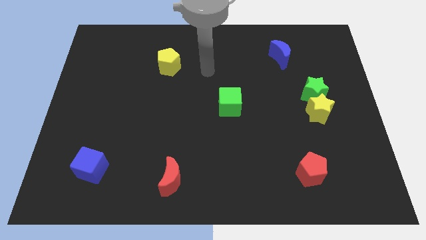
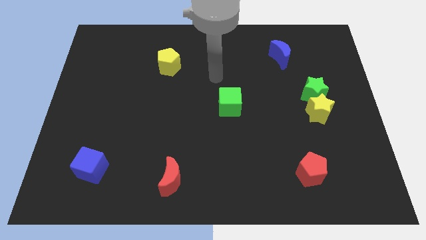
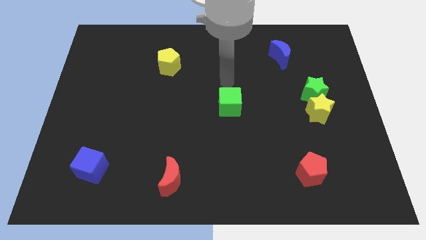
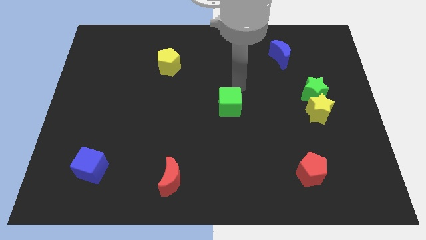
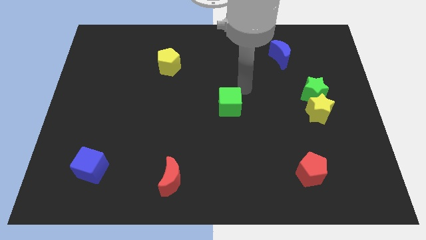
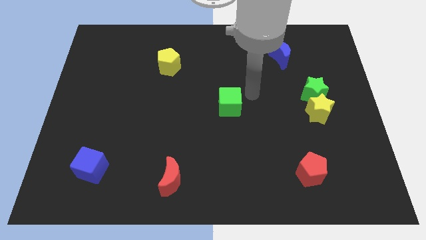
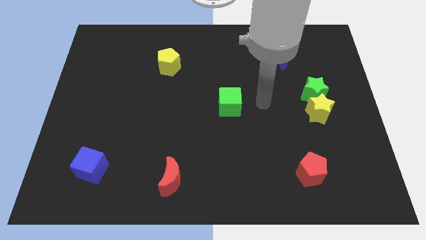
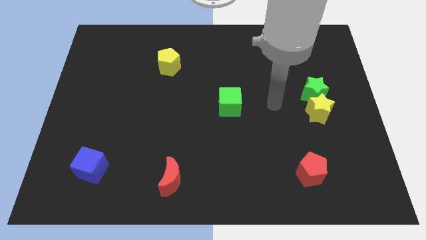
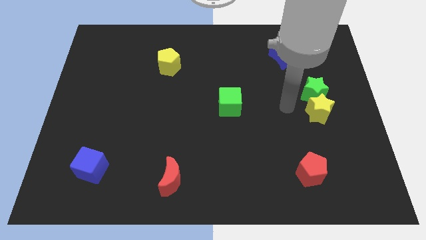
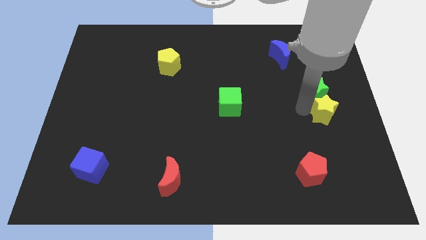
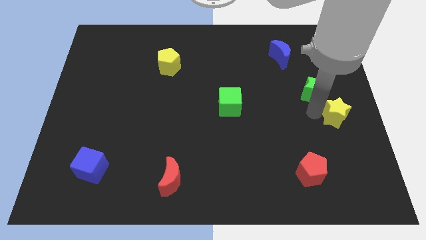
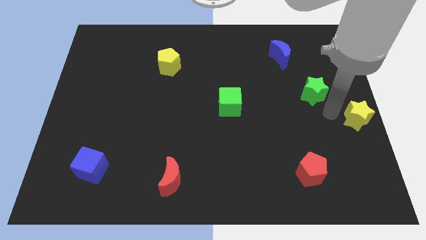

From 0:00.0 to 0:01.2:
move the green star away from the yellow star

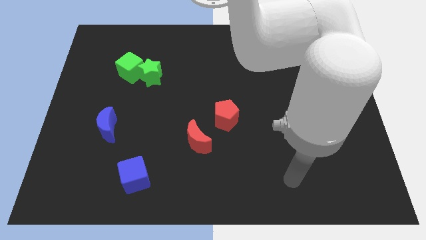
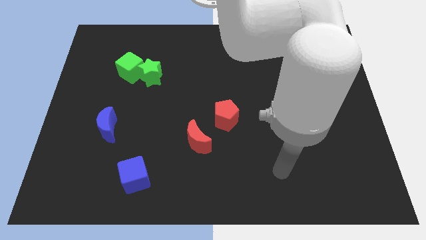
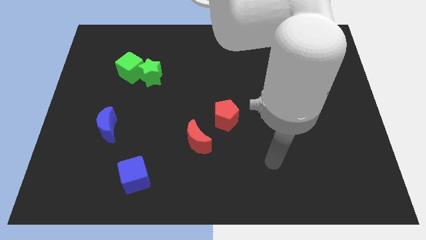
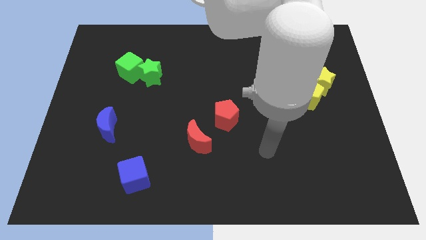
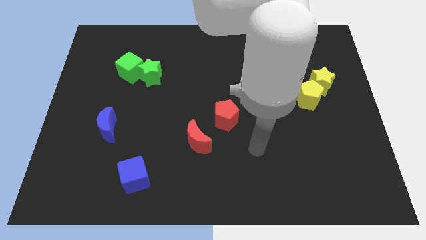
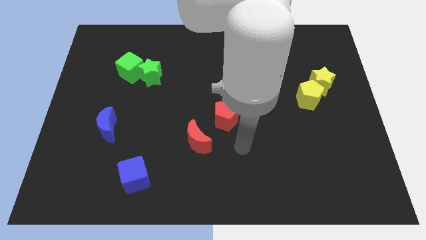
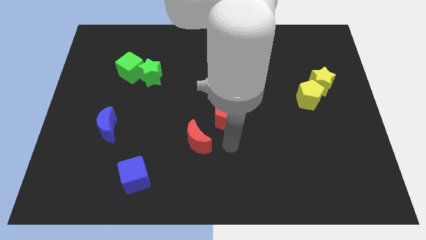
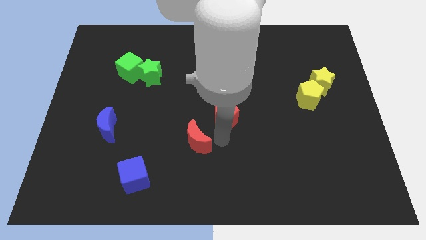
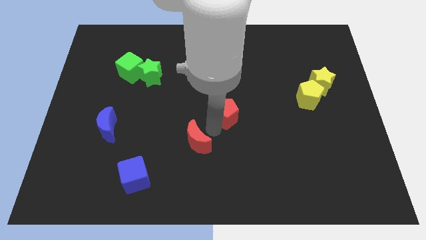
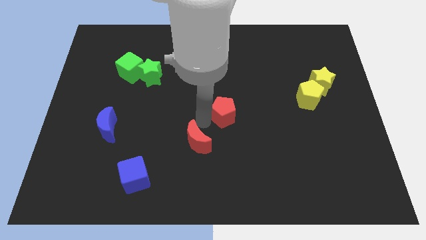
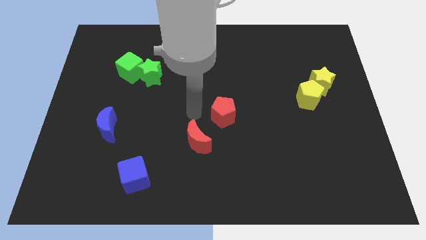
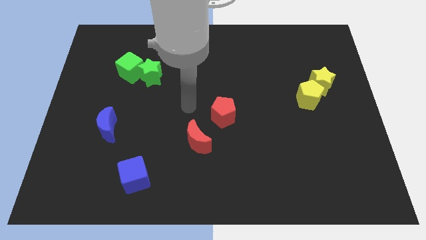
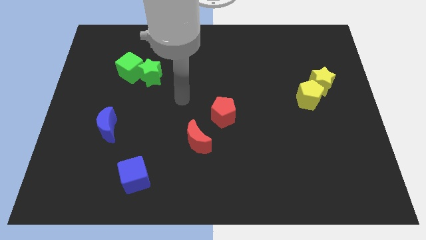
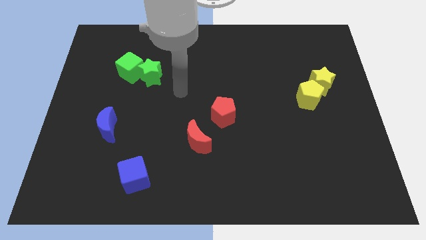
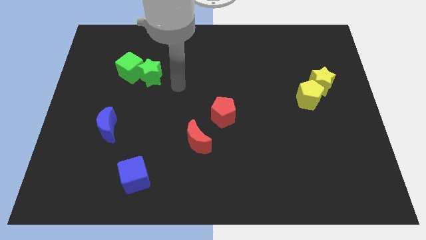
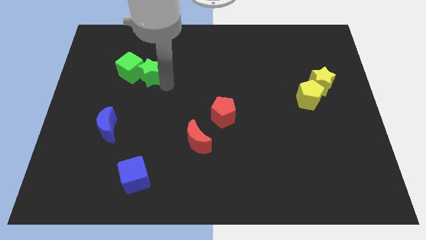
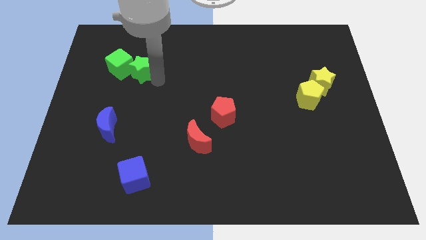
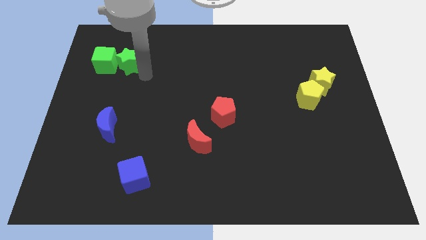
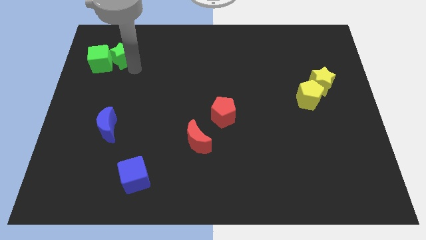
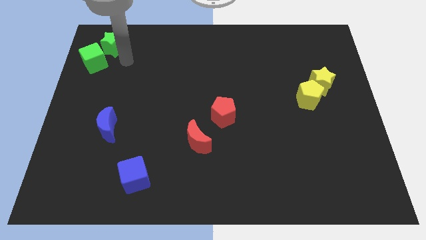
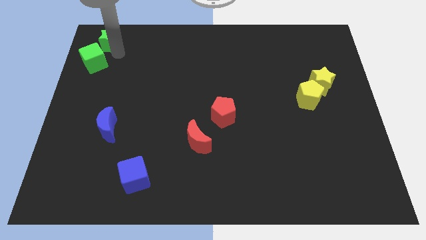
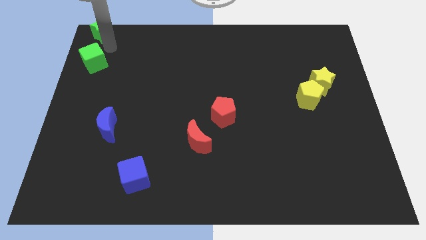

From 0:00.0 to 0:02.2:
move the green cube away from the green star

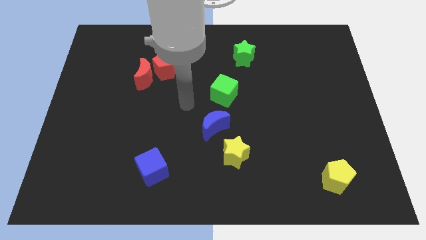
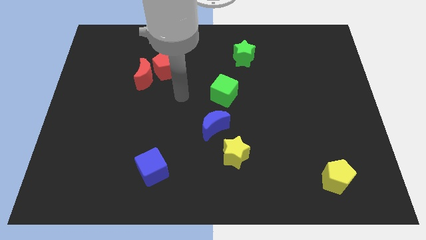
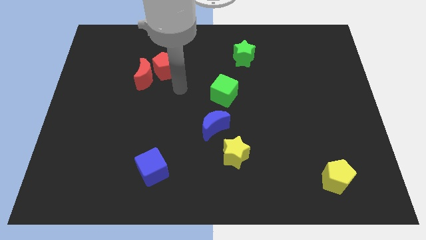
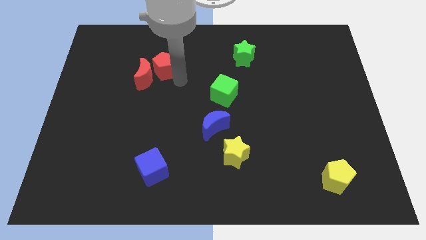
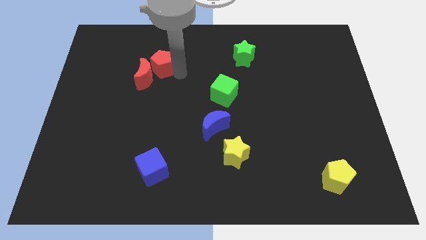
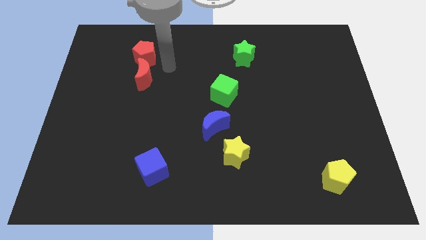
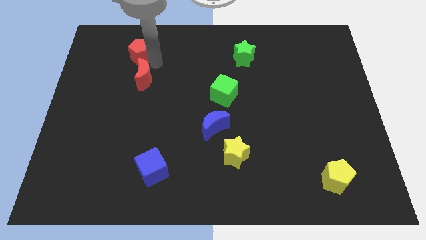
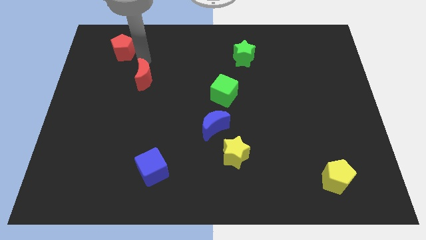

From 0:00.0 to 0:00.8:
separate the red moon from the red pentagon

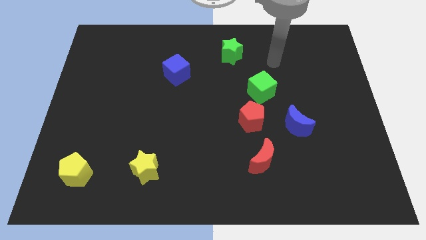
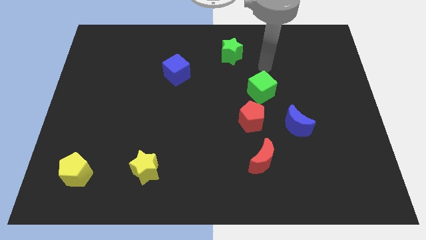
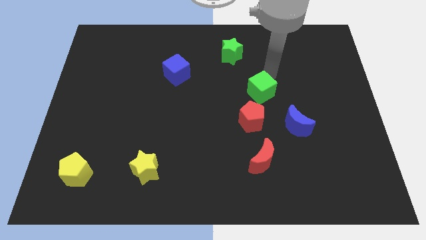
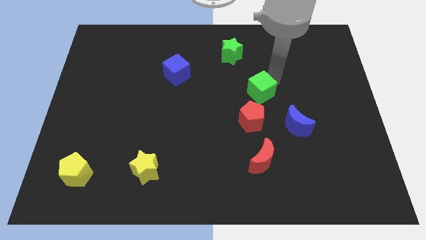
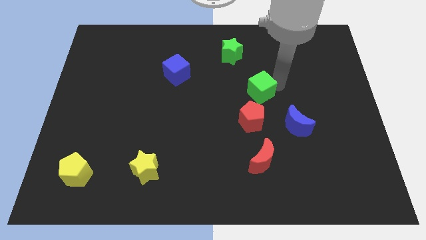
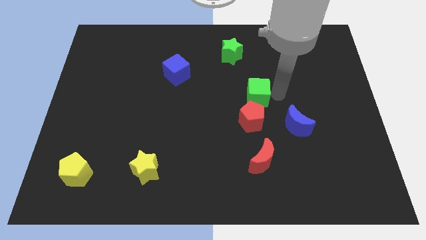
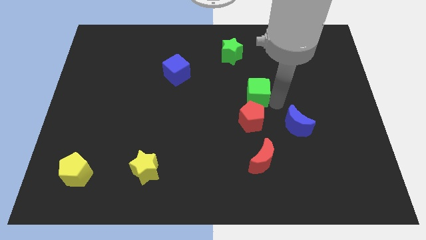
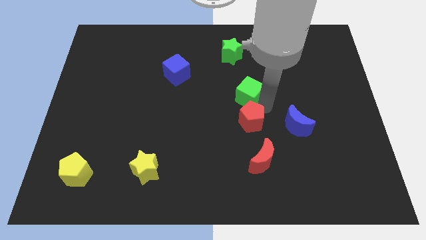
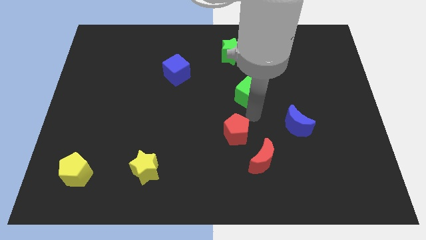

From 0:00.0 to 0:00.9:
pull the green cube apart from the red pentagon

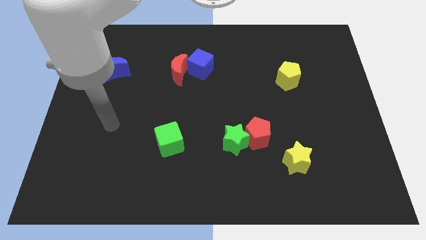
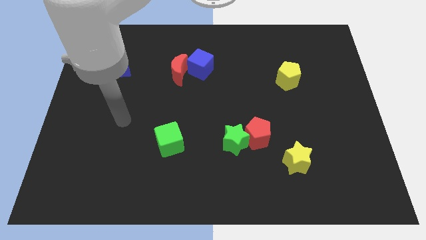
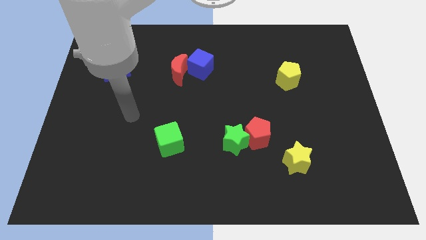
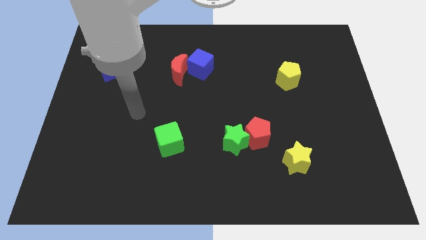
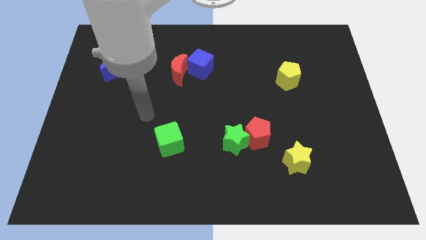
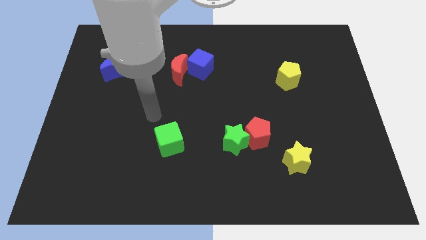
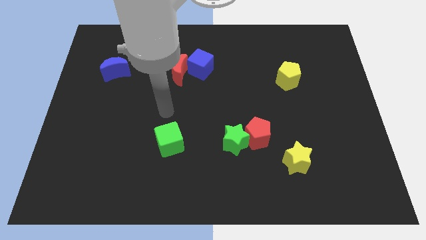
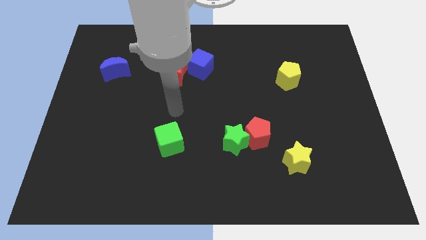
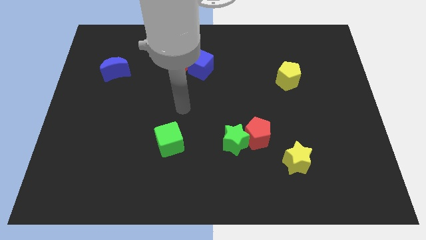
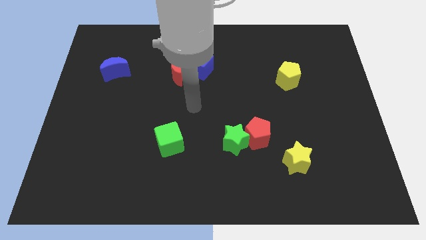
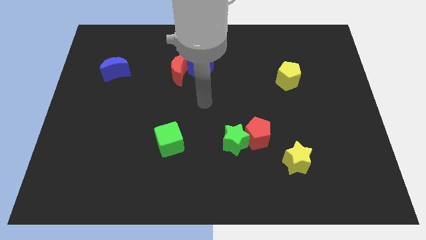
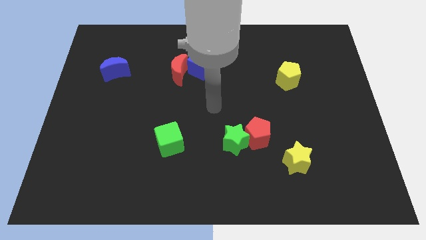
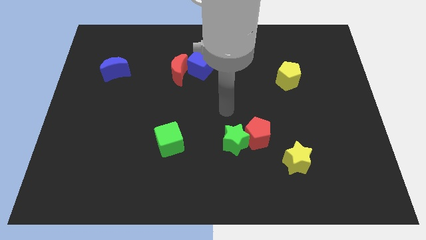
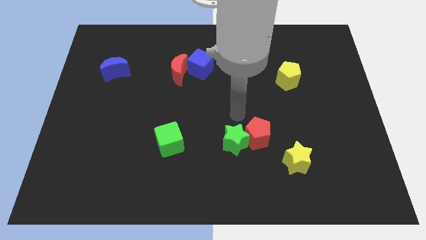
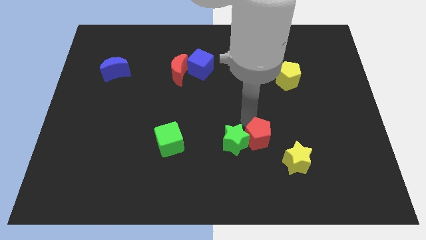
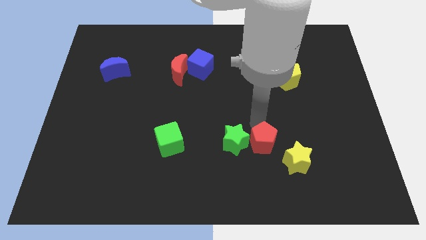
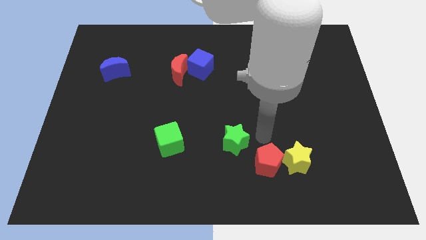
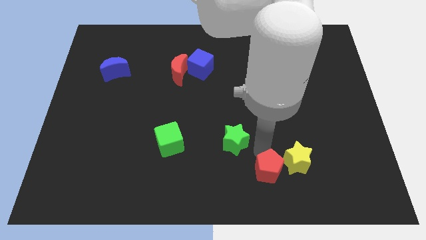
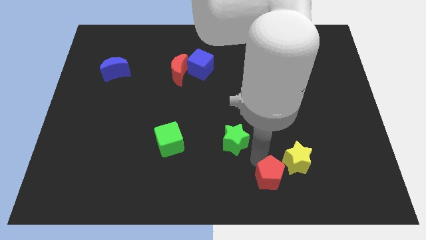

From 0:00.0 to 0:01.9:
separate the green star from the red pentagon

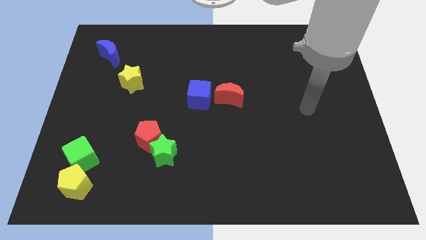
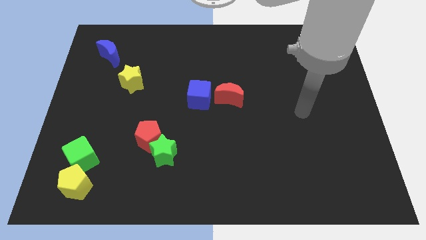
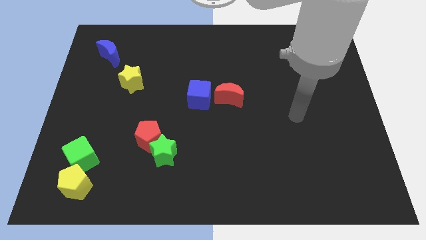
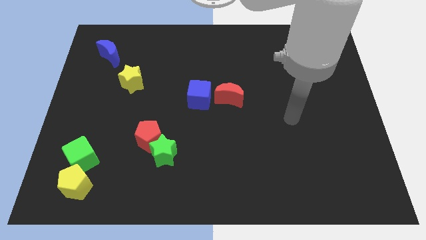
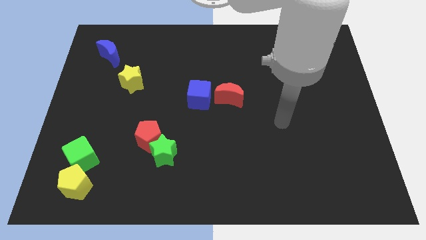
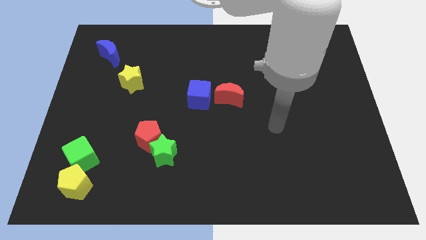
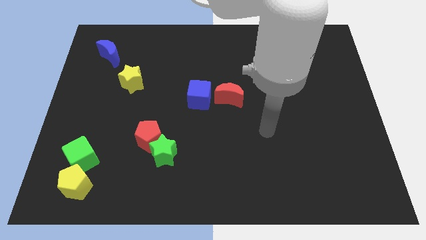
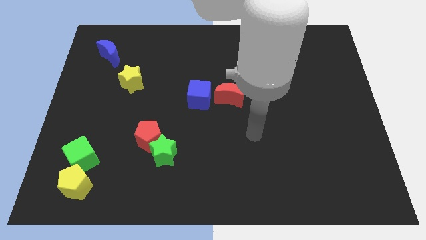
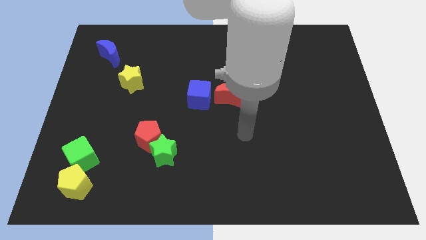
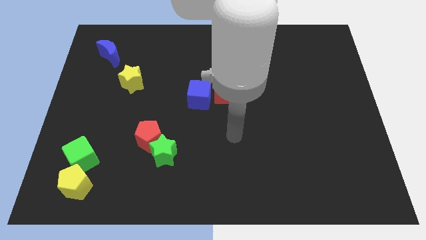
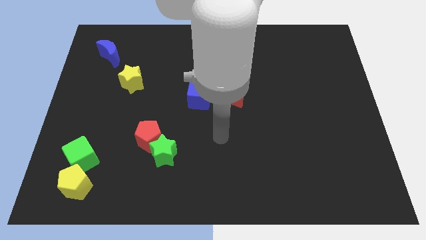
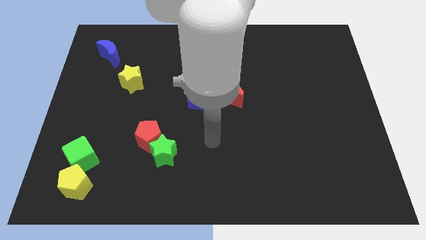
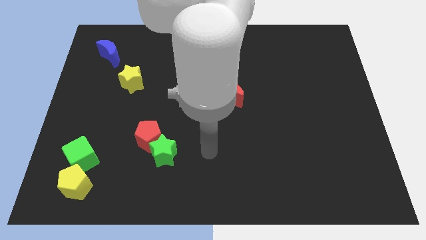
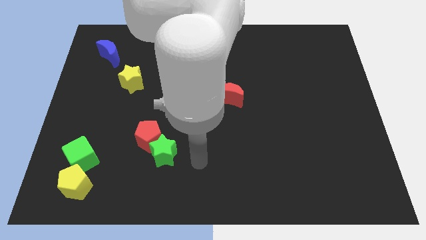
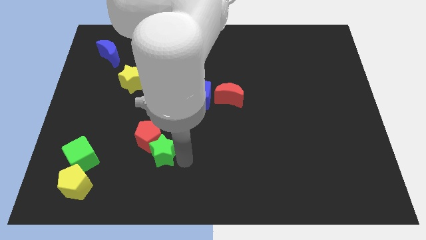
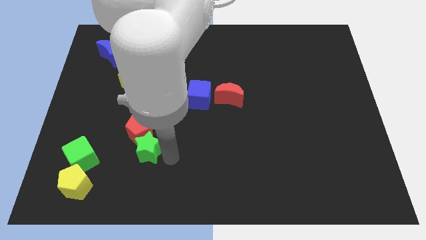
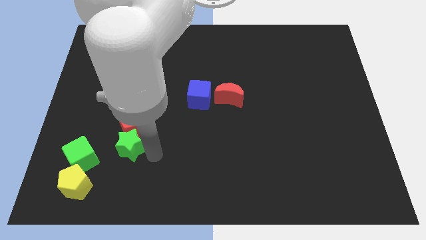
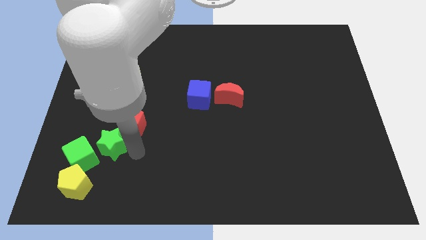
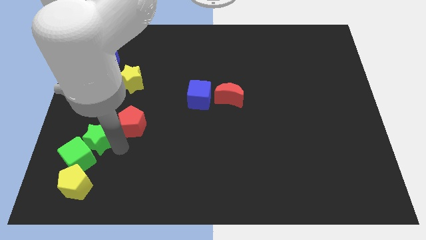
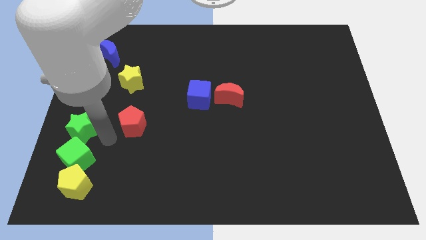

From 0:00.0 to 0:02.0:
pull the red pentagon apart from the green star

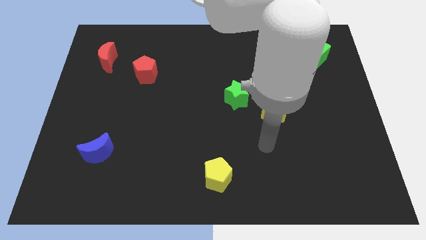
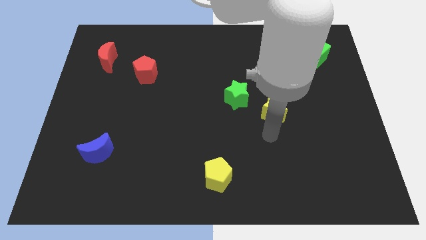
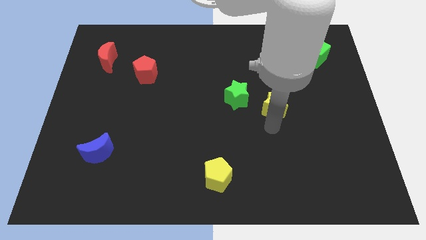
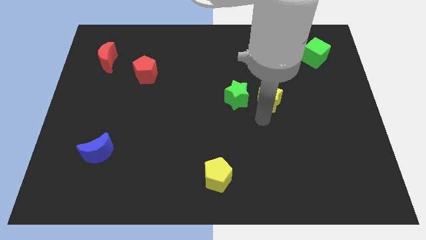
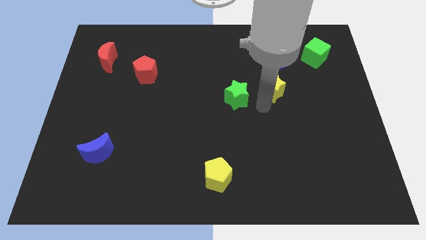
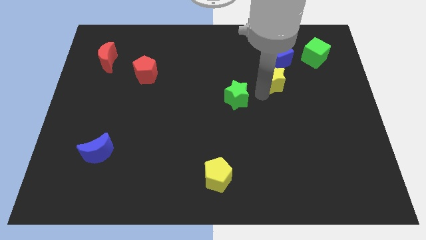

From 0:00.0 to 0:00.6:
separate the green star from the yellow star
